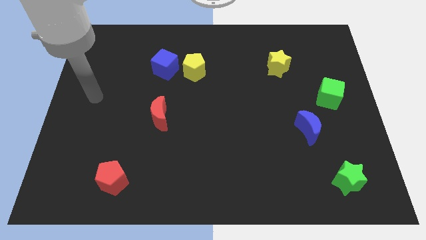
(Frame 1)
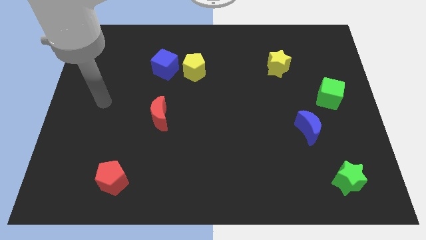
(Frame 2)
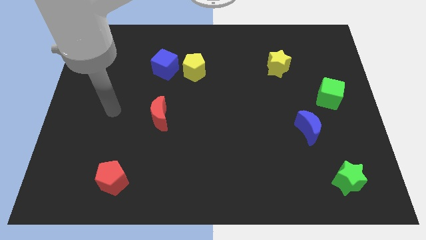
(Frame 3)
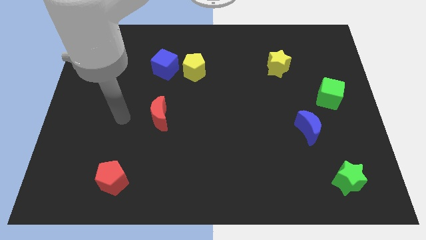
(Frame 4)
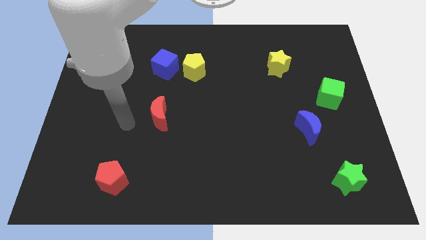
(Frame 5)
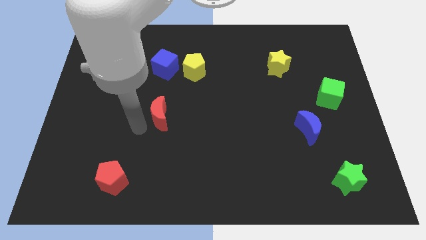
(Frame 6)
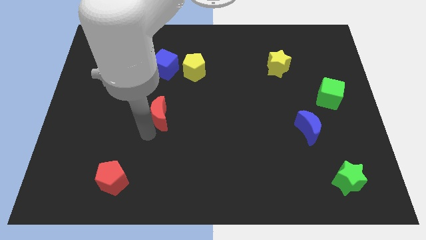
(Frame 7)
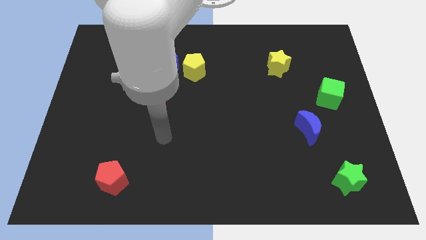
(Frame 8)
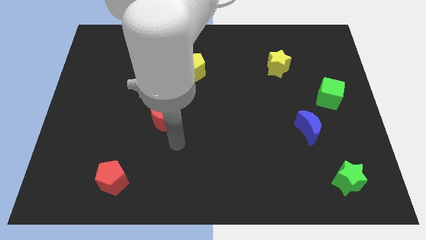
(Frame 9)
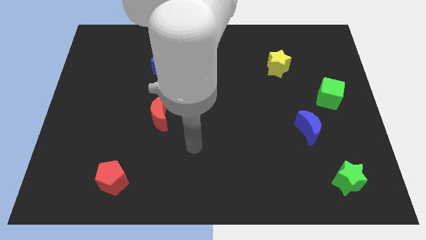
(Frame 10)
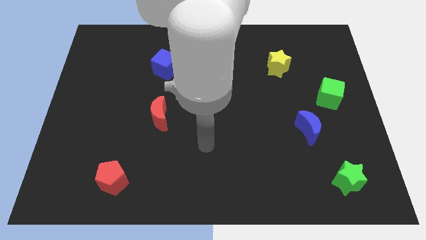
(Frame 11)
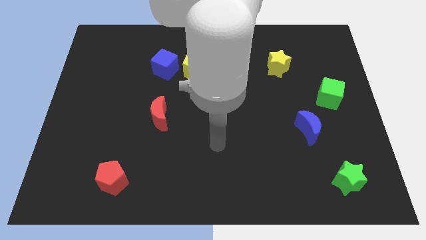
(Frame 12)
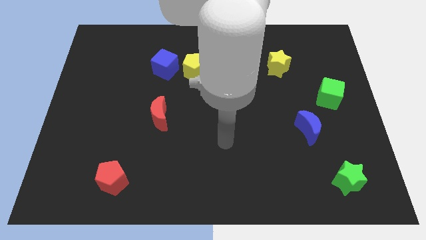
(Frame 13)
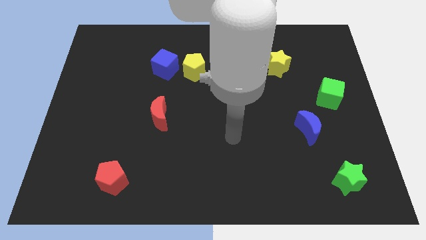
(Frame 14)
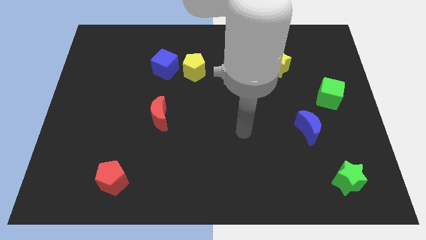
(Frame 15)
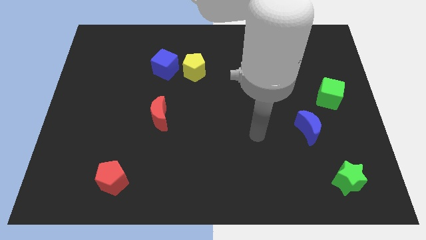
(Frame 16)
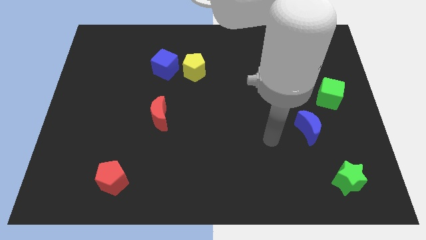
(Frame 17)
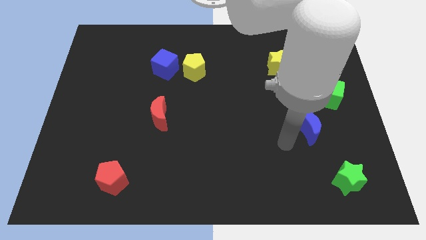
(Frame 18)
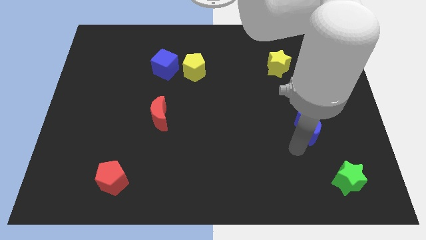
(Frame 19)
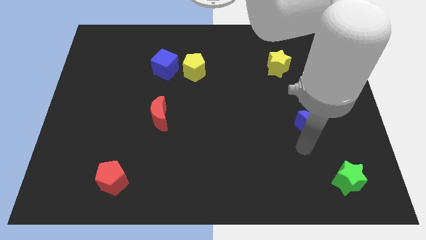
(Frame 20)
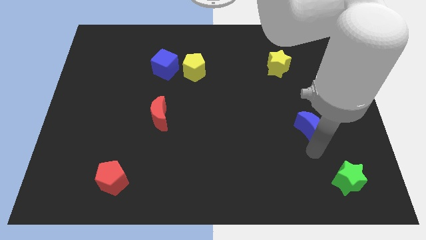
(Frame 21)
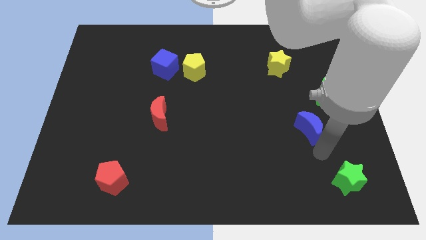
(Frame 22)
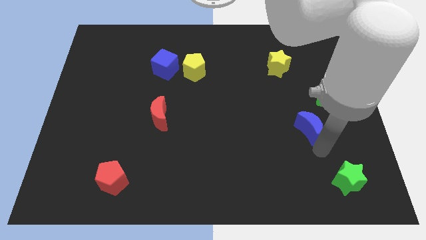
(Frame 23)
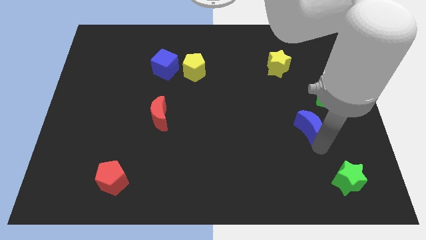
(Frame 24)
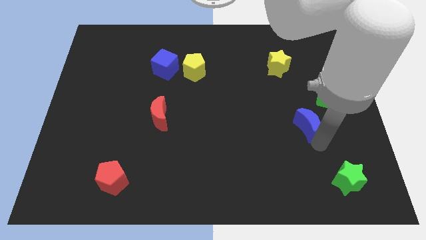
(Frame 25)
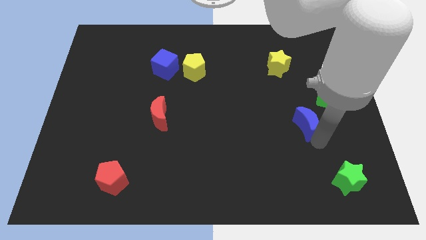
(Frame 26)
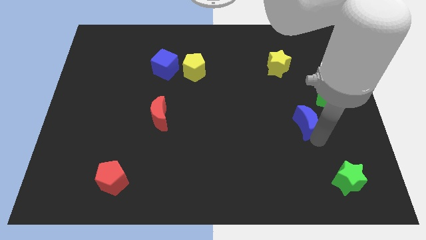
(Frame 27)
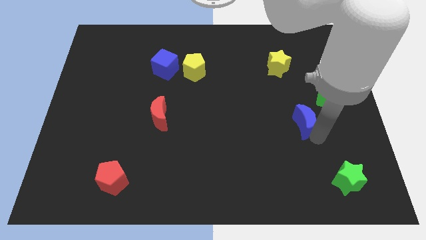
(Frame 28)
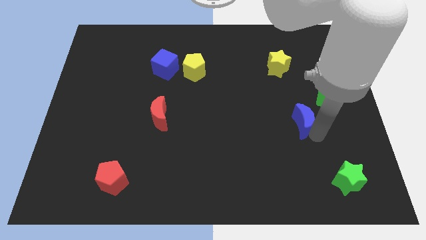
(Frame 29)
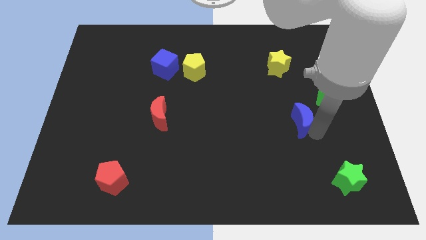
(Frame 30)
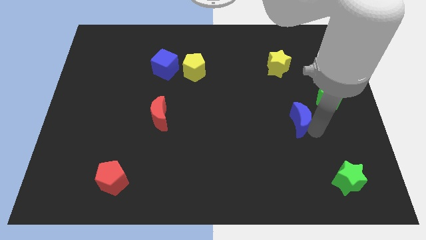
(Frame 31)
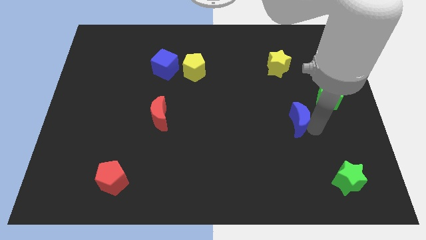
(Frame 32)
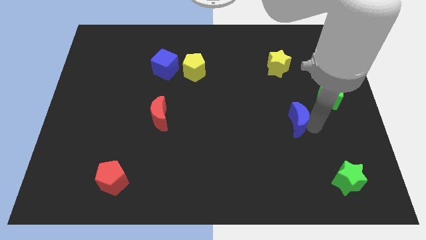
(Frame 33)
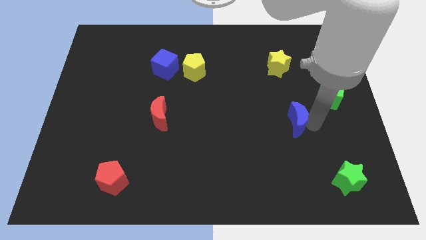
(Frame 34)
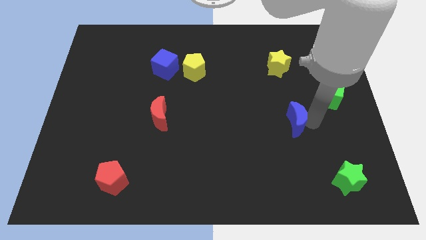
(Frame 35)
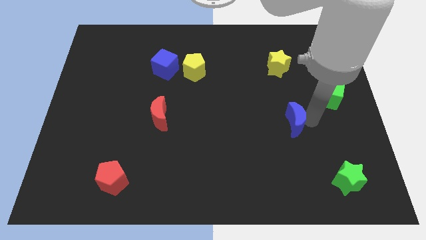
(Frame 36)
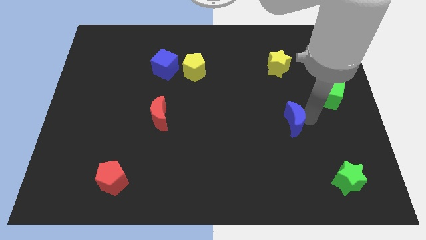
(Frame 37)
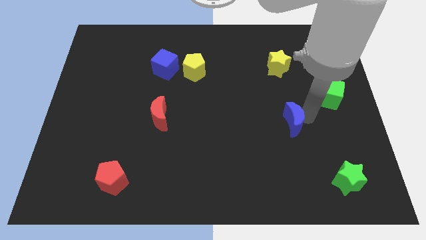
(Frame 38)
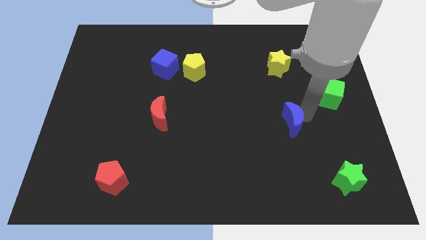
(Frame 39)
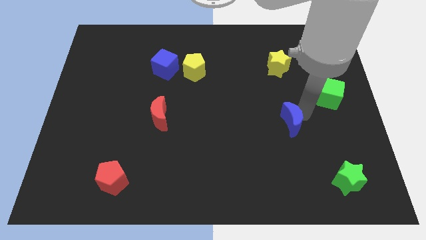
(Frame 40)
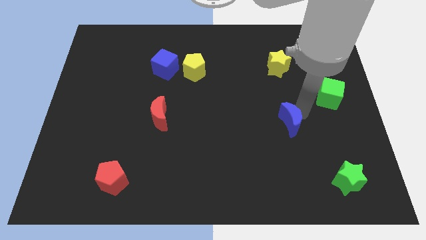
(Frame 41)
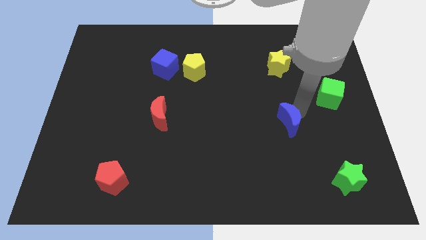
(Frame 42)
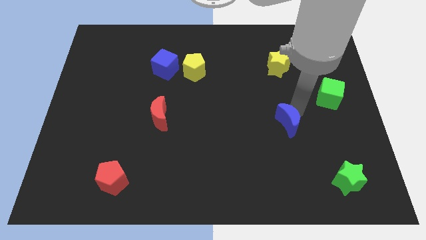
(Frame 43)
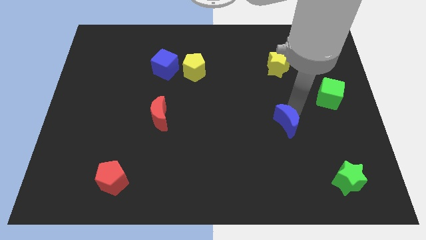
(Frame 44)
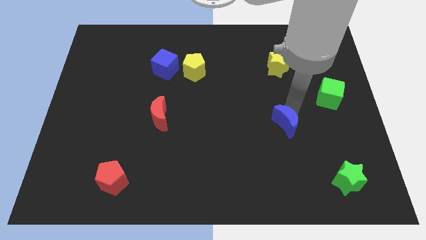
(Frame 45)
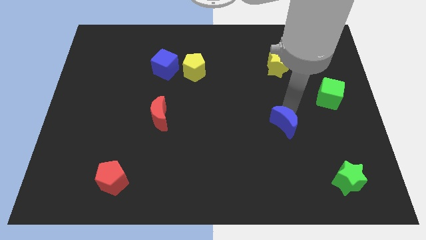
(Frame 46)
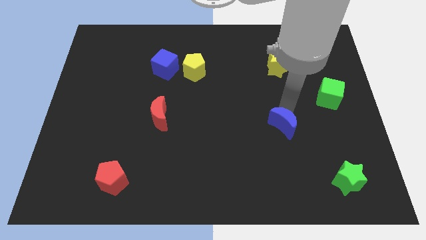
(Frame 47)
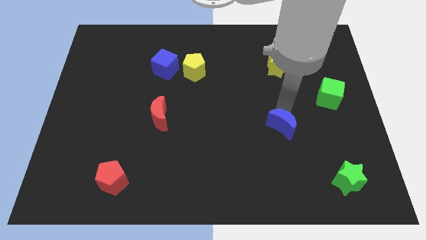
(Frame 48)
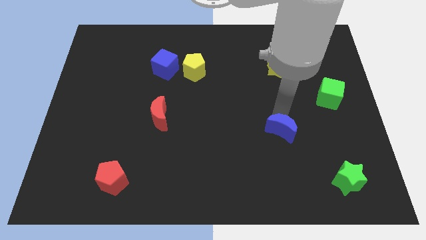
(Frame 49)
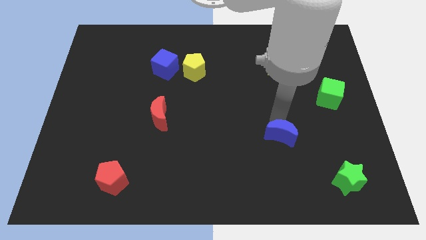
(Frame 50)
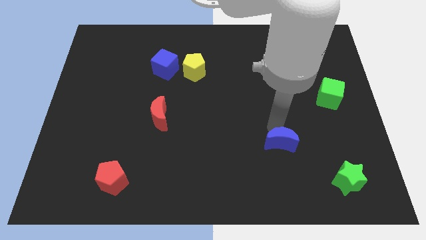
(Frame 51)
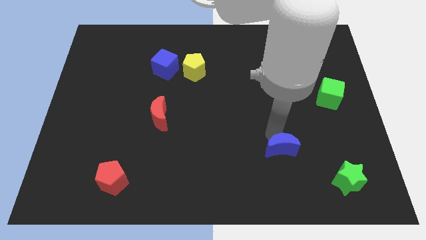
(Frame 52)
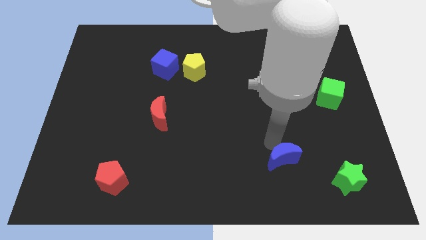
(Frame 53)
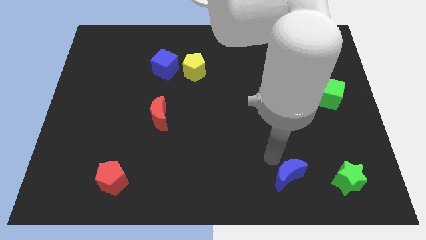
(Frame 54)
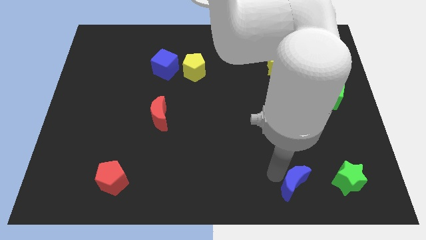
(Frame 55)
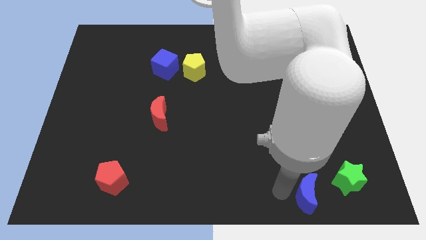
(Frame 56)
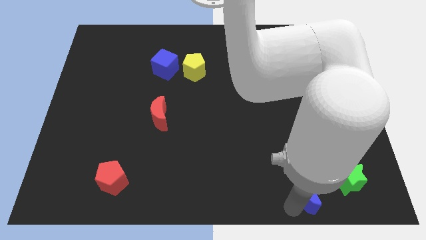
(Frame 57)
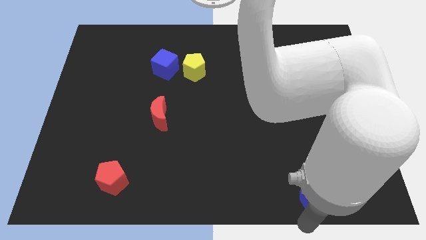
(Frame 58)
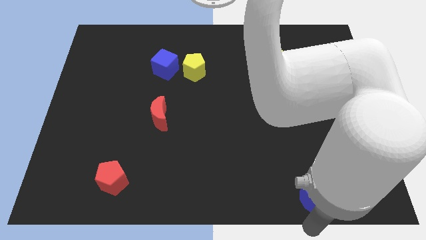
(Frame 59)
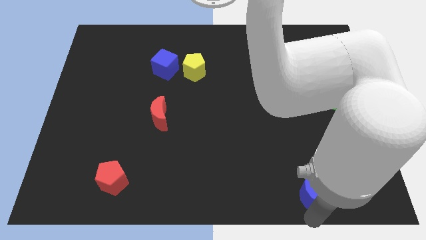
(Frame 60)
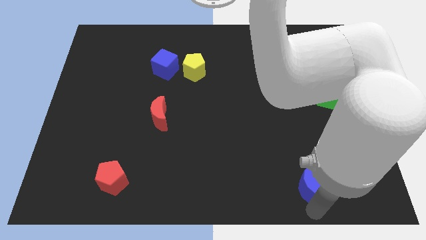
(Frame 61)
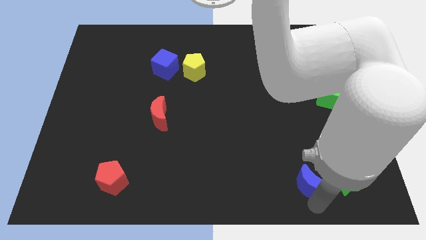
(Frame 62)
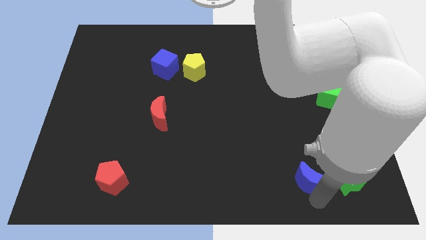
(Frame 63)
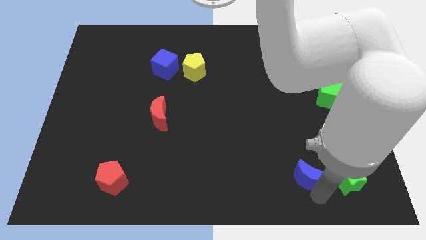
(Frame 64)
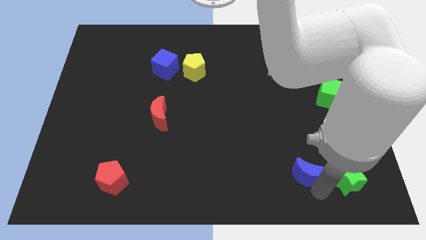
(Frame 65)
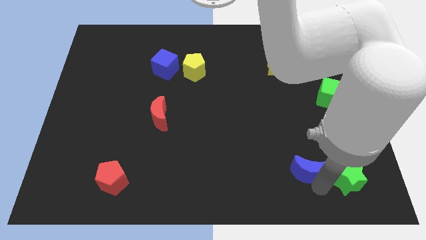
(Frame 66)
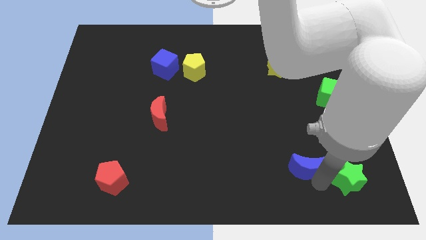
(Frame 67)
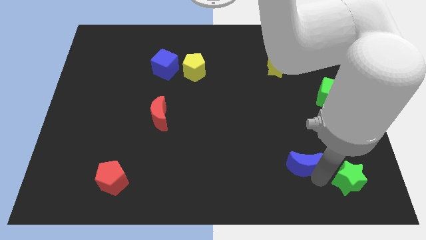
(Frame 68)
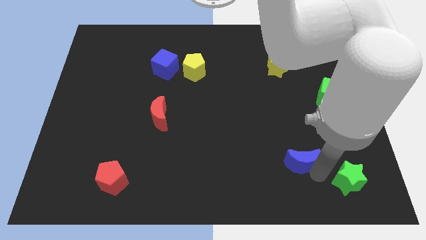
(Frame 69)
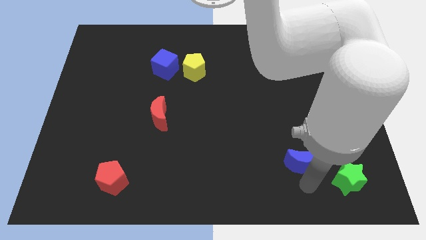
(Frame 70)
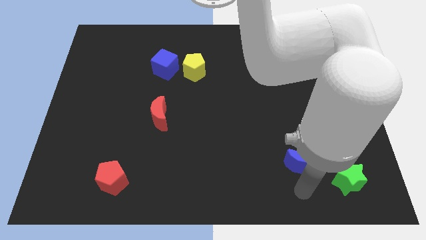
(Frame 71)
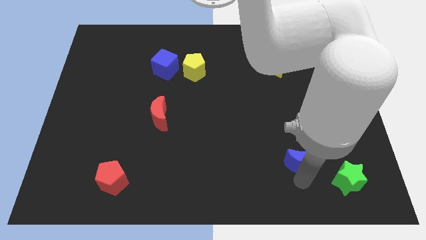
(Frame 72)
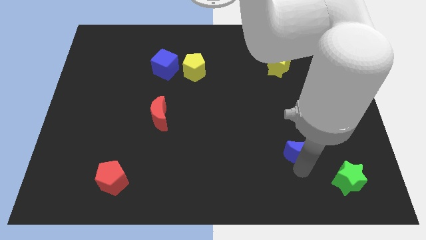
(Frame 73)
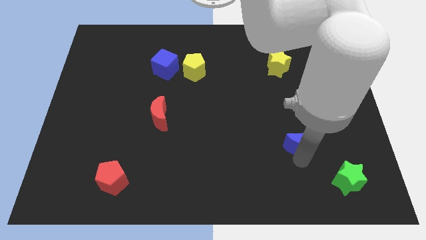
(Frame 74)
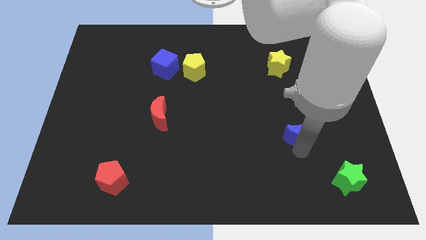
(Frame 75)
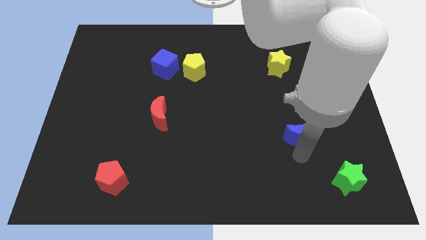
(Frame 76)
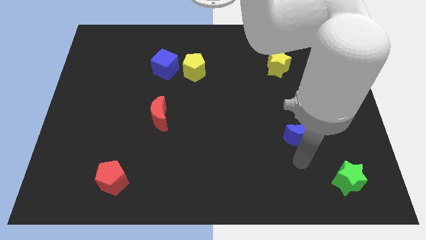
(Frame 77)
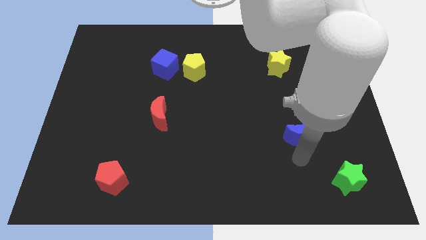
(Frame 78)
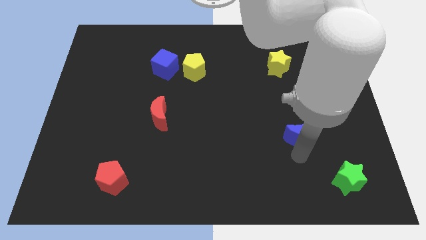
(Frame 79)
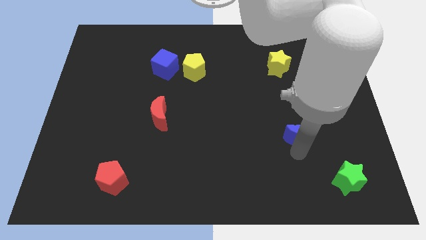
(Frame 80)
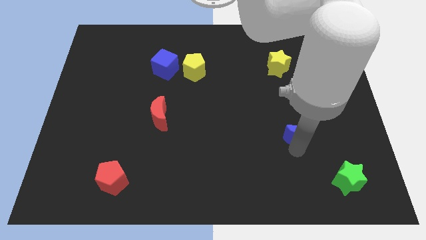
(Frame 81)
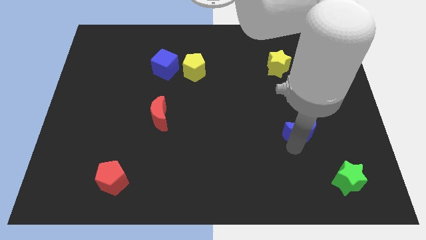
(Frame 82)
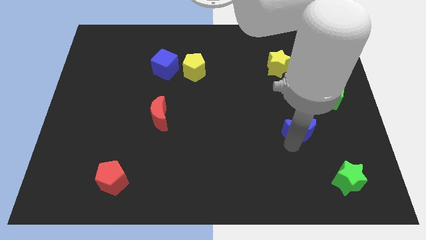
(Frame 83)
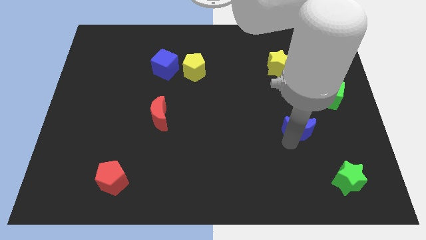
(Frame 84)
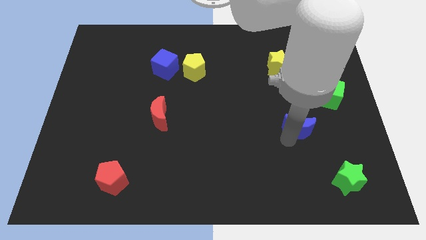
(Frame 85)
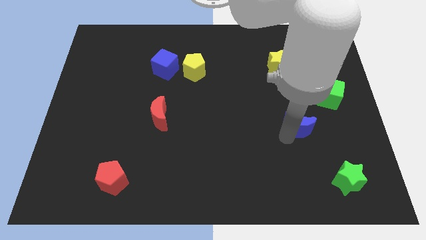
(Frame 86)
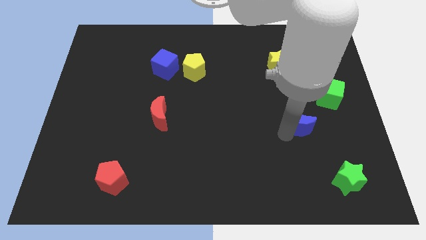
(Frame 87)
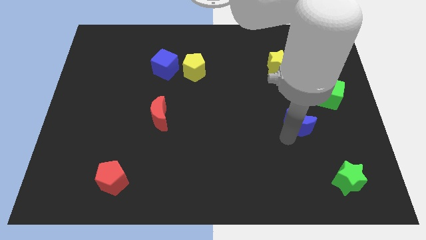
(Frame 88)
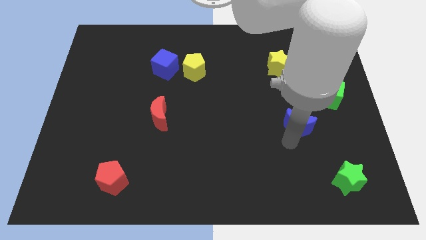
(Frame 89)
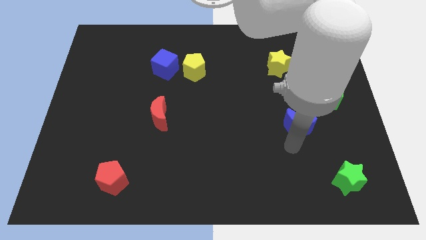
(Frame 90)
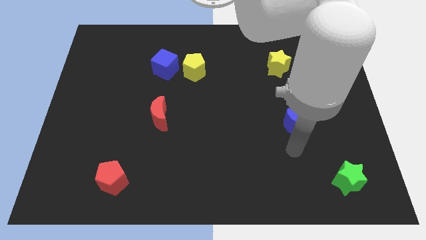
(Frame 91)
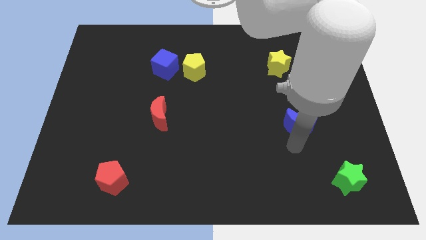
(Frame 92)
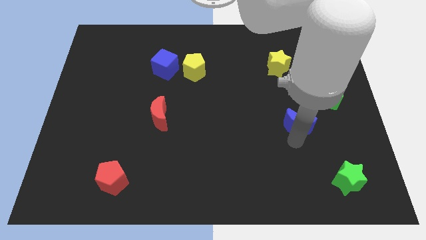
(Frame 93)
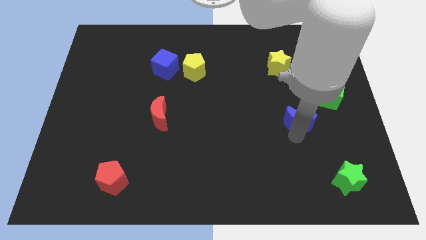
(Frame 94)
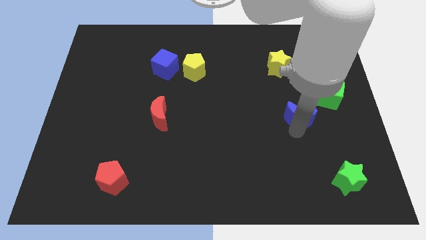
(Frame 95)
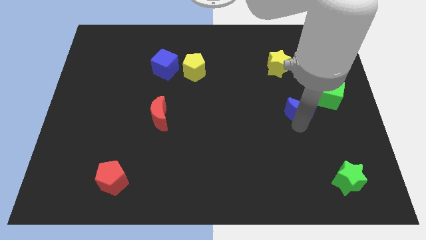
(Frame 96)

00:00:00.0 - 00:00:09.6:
move the blue moon to the bottom side of the yellow star
